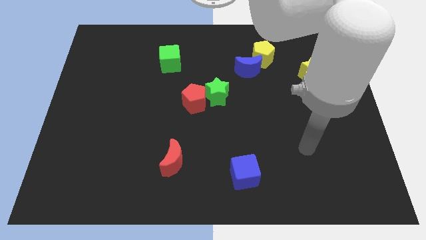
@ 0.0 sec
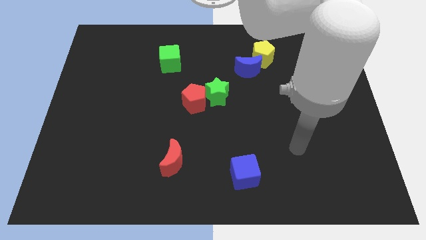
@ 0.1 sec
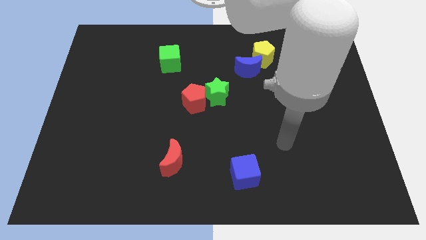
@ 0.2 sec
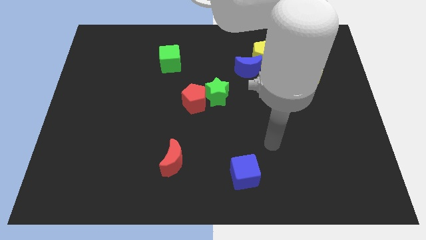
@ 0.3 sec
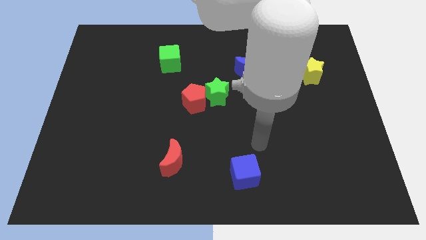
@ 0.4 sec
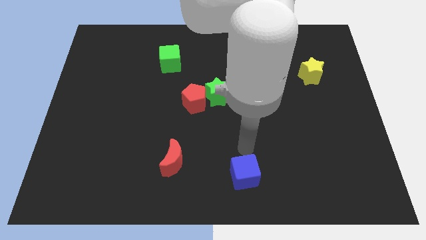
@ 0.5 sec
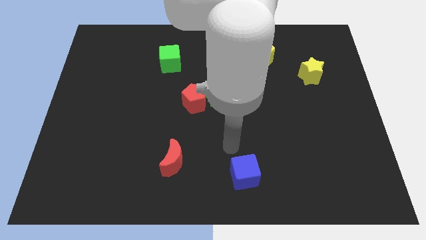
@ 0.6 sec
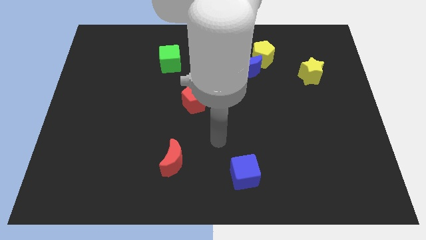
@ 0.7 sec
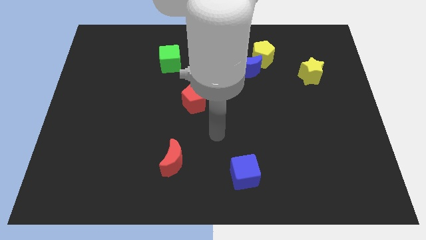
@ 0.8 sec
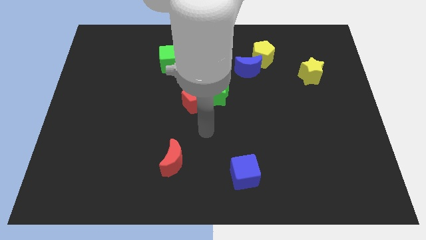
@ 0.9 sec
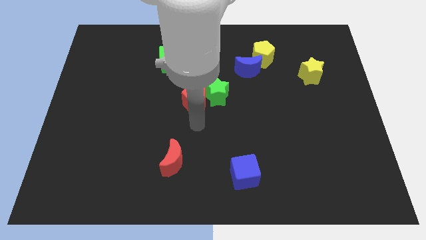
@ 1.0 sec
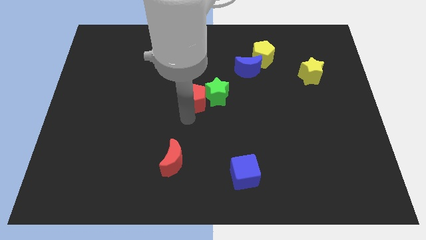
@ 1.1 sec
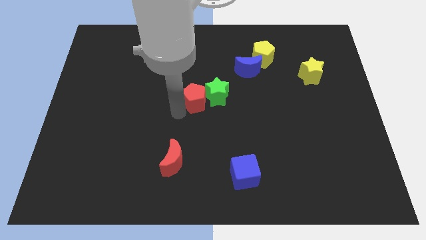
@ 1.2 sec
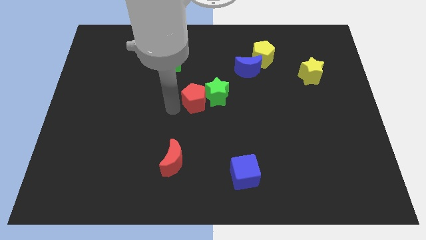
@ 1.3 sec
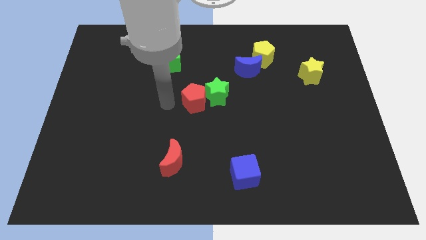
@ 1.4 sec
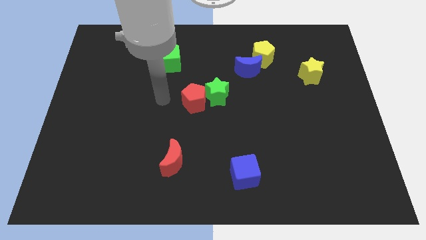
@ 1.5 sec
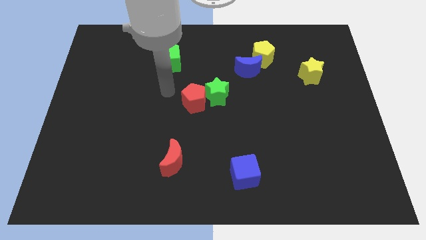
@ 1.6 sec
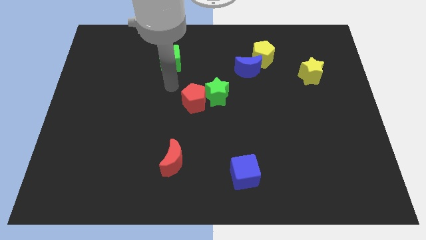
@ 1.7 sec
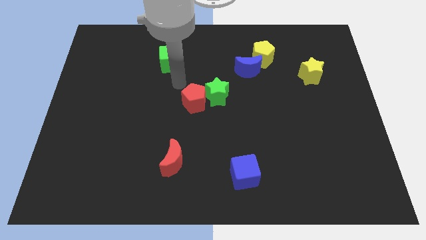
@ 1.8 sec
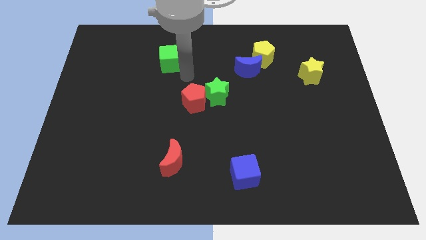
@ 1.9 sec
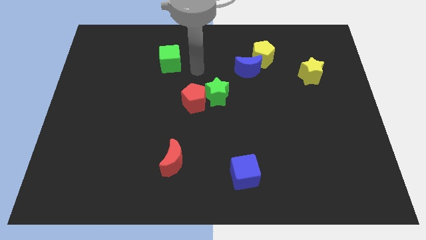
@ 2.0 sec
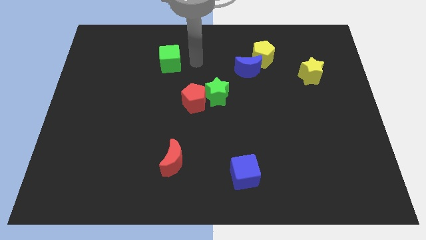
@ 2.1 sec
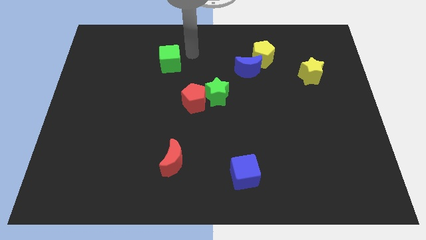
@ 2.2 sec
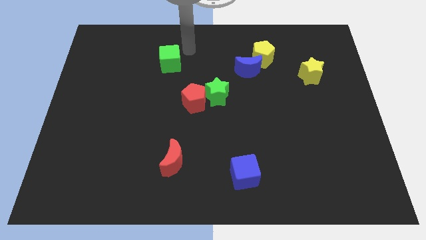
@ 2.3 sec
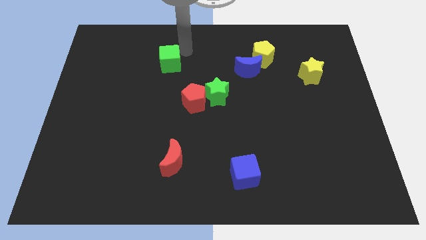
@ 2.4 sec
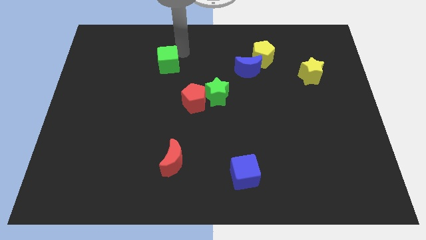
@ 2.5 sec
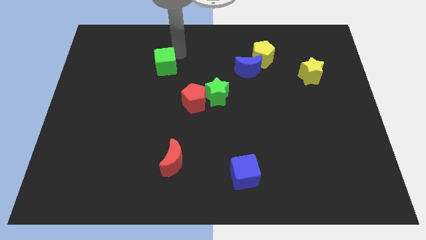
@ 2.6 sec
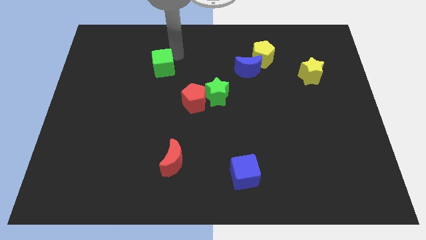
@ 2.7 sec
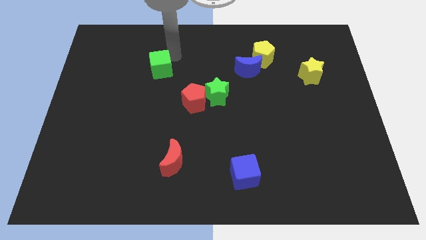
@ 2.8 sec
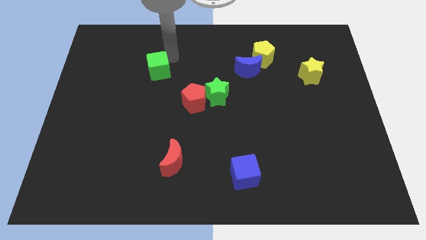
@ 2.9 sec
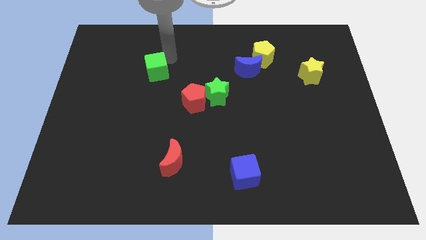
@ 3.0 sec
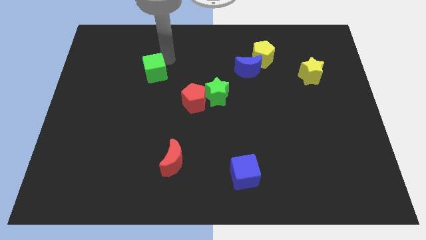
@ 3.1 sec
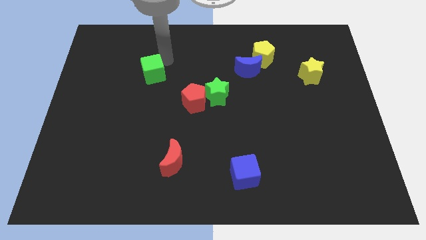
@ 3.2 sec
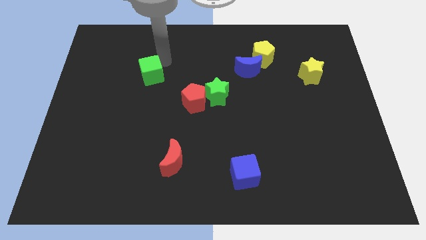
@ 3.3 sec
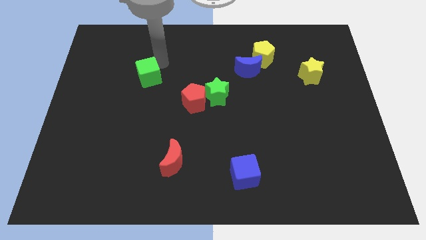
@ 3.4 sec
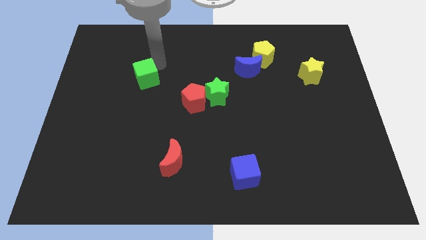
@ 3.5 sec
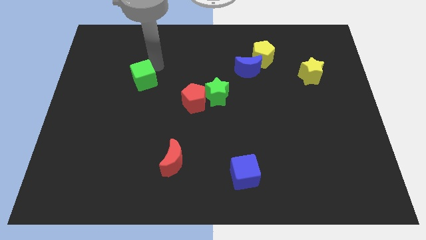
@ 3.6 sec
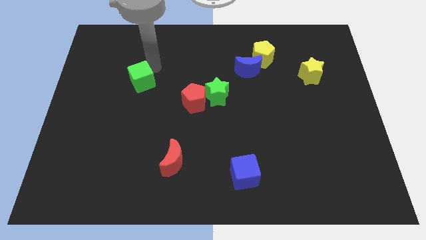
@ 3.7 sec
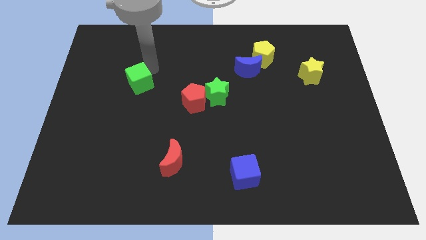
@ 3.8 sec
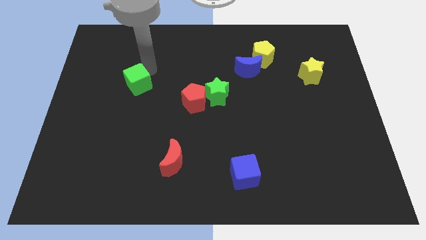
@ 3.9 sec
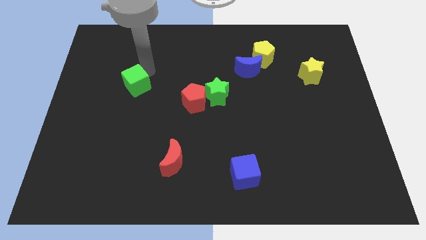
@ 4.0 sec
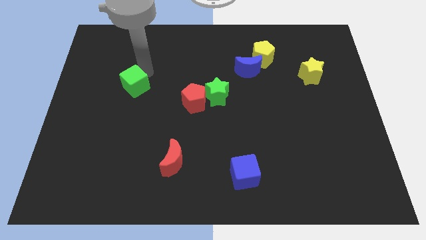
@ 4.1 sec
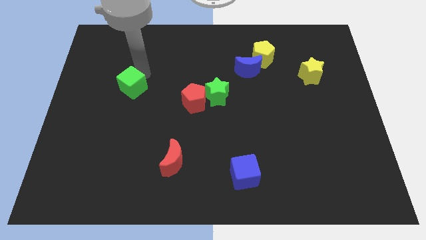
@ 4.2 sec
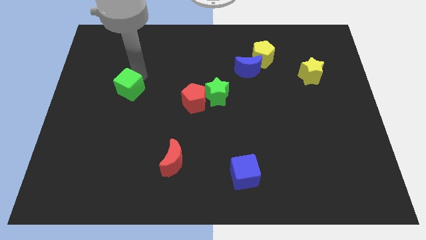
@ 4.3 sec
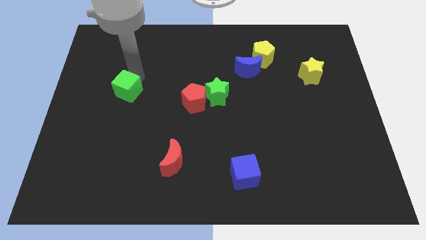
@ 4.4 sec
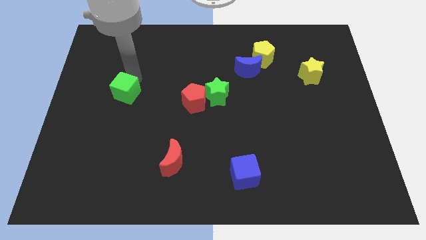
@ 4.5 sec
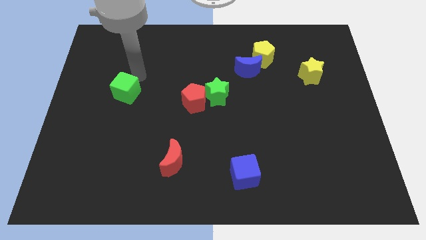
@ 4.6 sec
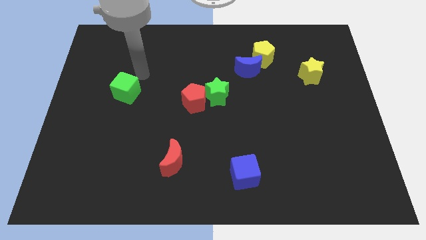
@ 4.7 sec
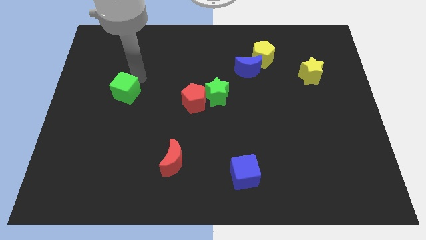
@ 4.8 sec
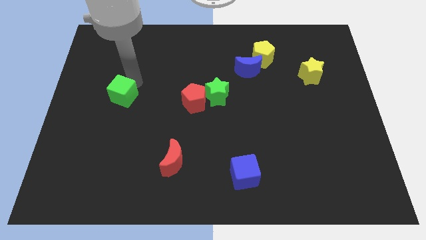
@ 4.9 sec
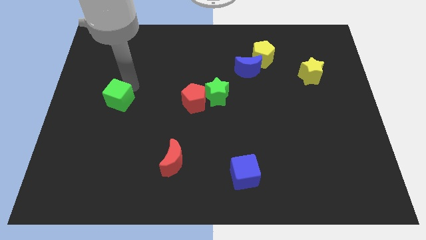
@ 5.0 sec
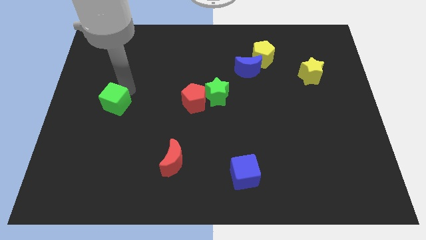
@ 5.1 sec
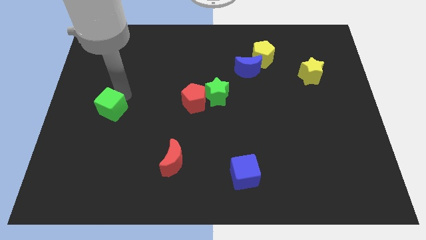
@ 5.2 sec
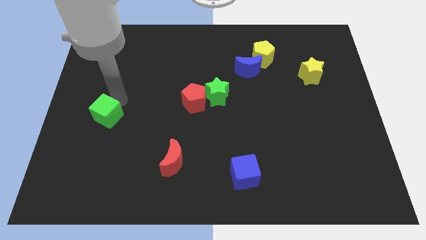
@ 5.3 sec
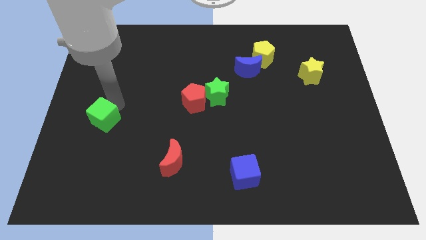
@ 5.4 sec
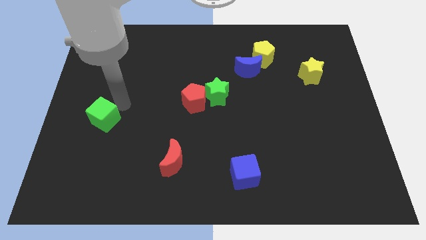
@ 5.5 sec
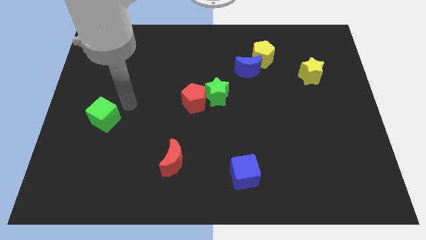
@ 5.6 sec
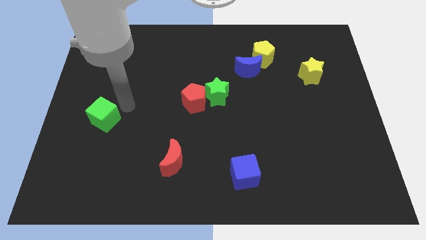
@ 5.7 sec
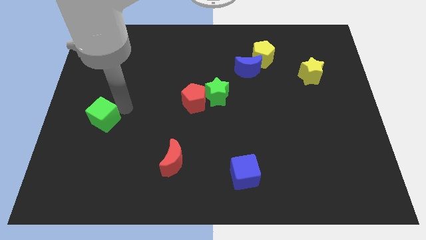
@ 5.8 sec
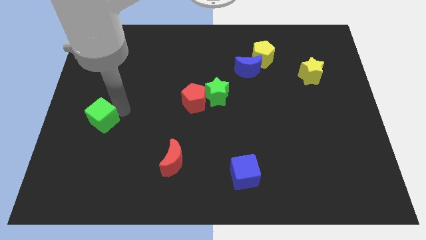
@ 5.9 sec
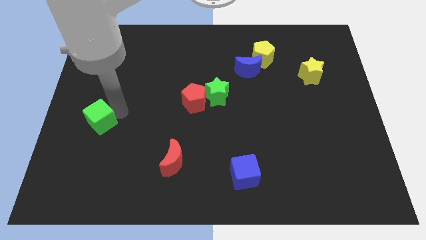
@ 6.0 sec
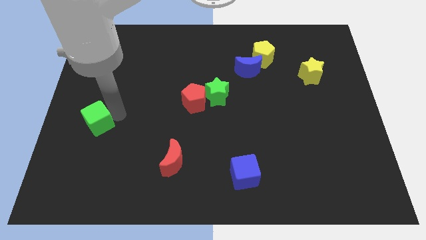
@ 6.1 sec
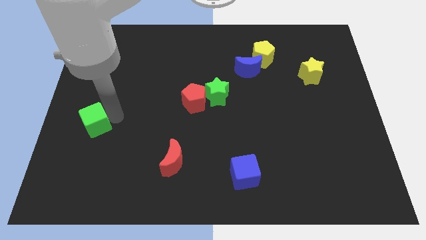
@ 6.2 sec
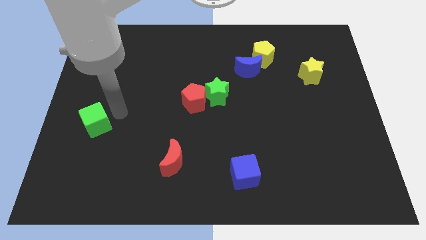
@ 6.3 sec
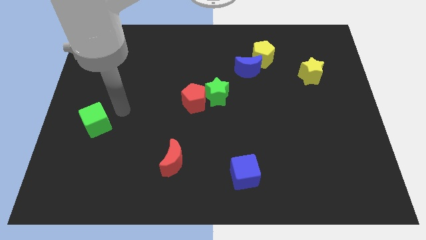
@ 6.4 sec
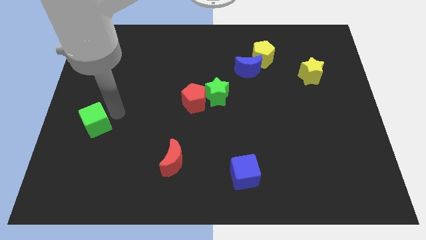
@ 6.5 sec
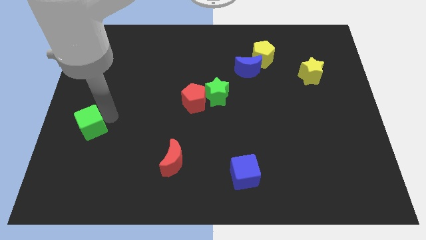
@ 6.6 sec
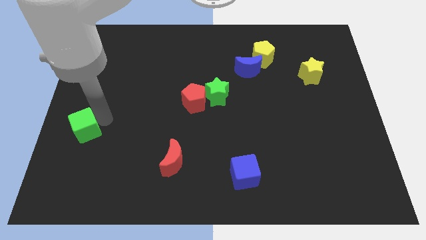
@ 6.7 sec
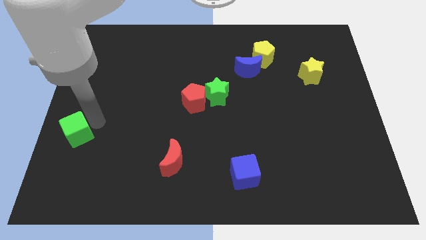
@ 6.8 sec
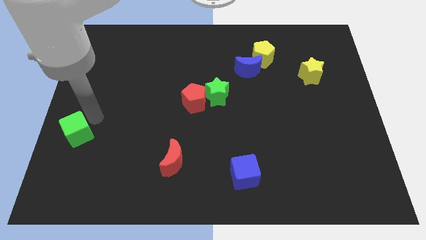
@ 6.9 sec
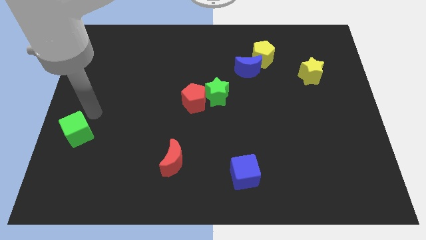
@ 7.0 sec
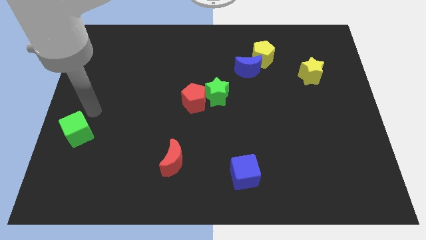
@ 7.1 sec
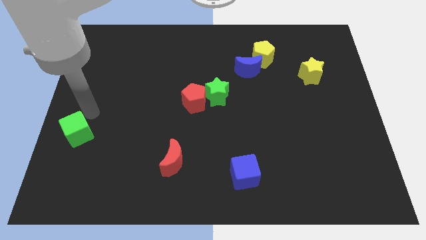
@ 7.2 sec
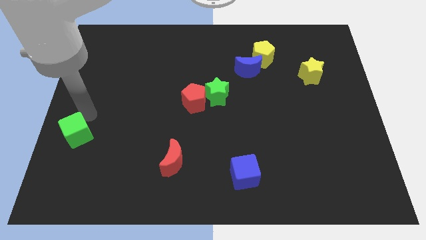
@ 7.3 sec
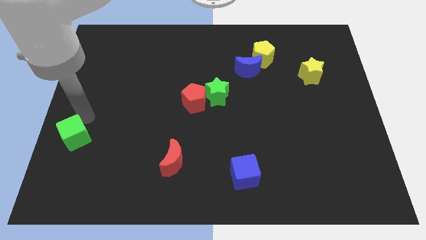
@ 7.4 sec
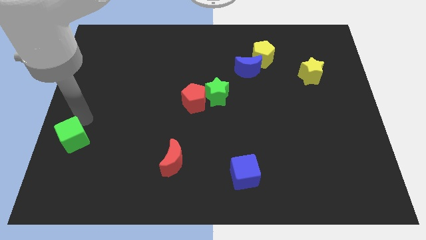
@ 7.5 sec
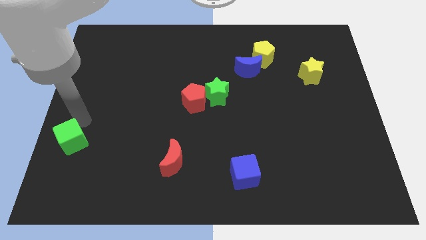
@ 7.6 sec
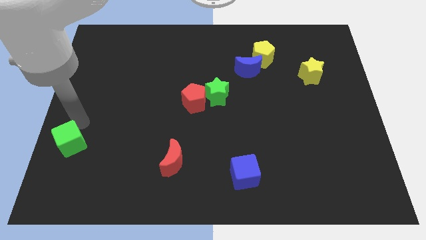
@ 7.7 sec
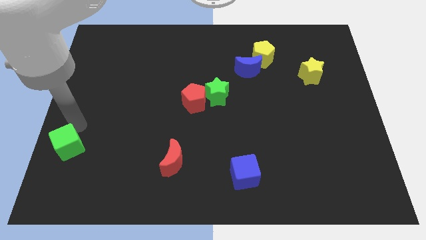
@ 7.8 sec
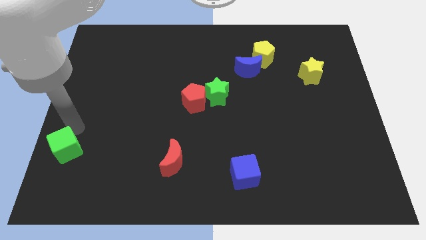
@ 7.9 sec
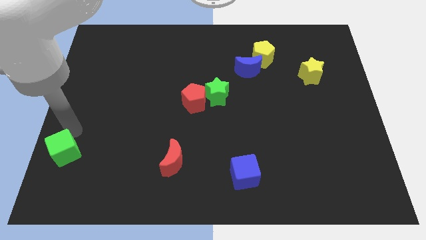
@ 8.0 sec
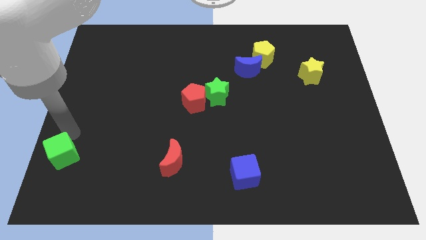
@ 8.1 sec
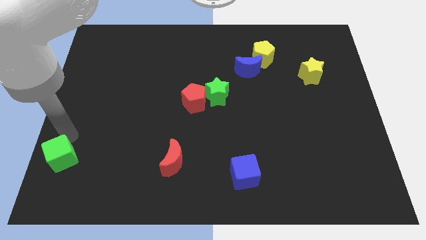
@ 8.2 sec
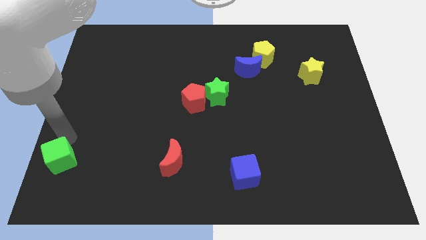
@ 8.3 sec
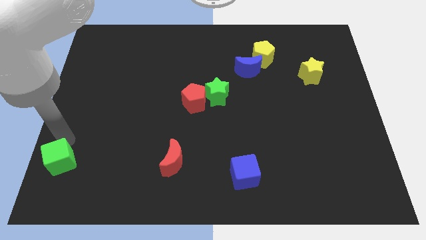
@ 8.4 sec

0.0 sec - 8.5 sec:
push the green cube to the bottom left
